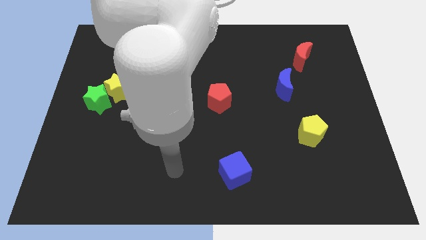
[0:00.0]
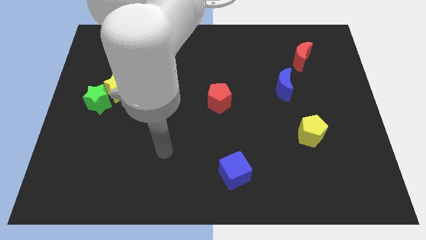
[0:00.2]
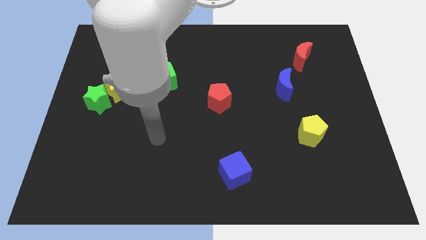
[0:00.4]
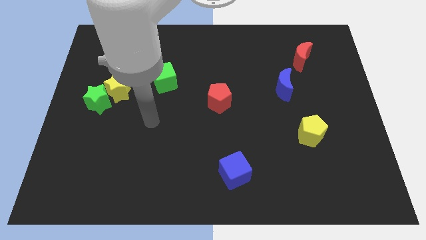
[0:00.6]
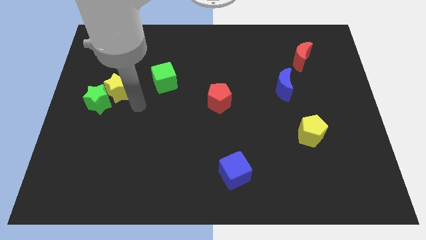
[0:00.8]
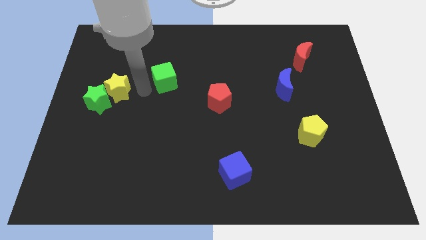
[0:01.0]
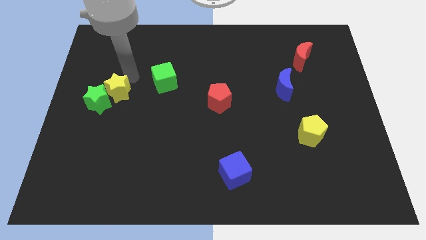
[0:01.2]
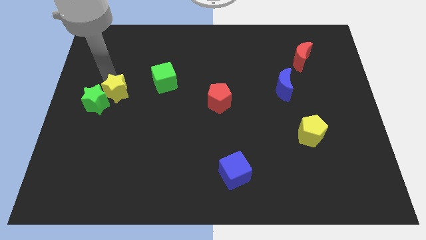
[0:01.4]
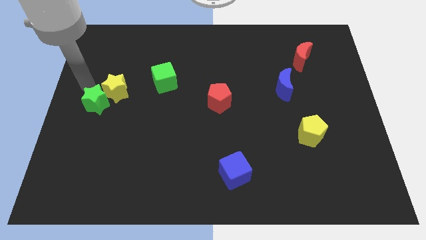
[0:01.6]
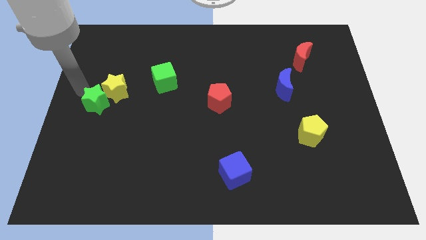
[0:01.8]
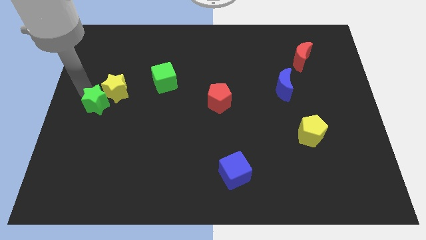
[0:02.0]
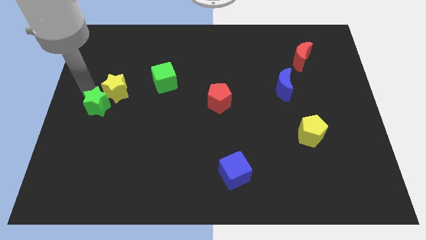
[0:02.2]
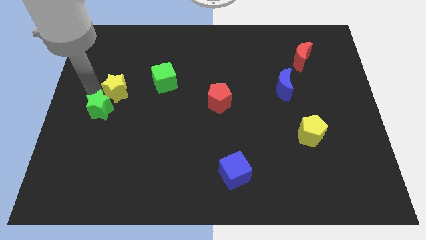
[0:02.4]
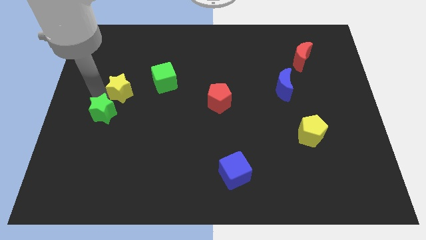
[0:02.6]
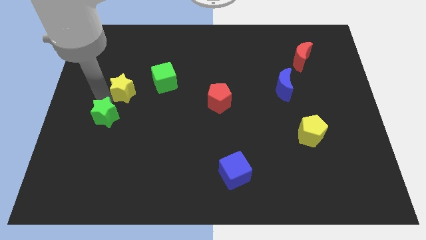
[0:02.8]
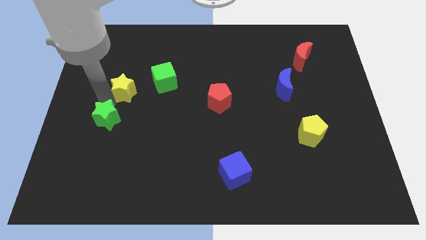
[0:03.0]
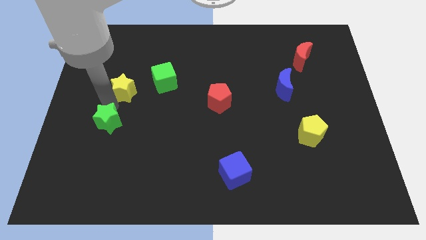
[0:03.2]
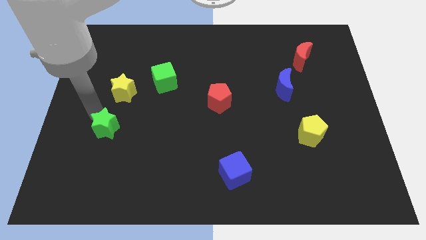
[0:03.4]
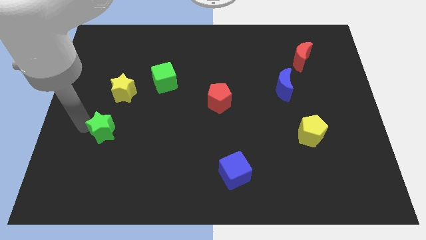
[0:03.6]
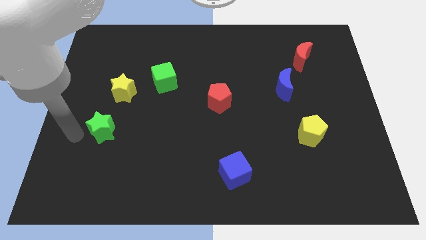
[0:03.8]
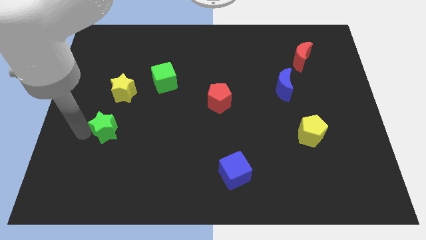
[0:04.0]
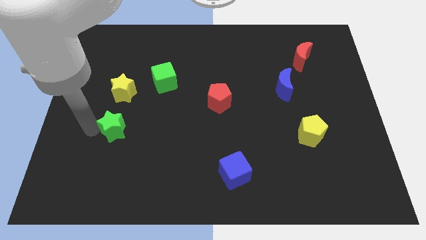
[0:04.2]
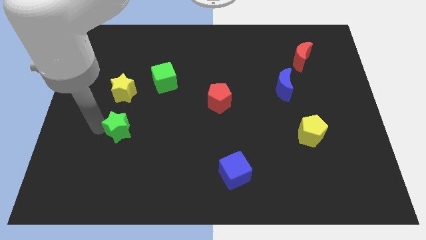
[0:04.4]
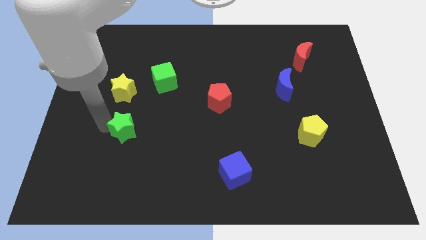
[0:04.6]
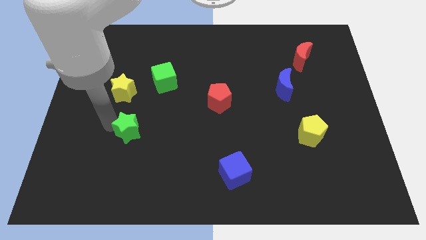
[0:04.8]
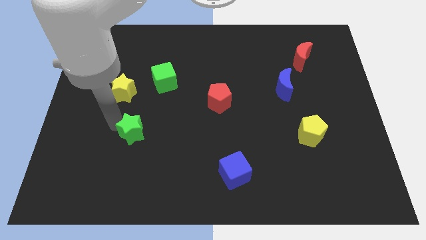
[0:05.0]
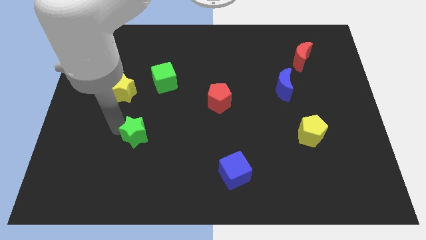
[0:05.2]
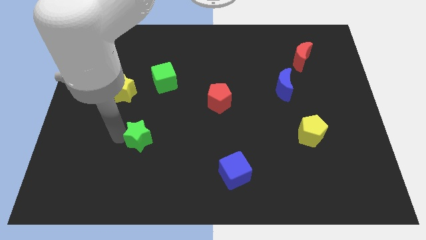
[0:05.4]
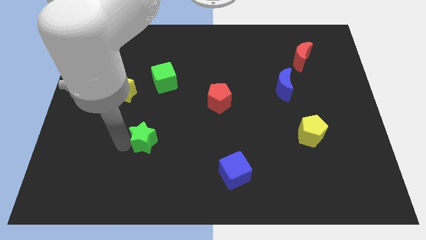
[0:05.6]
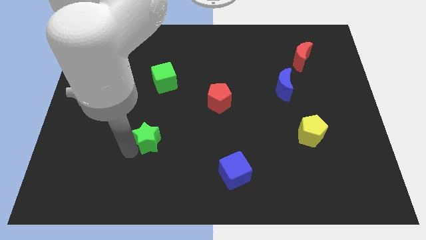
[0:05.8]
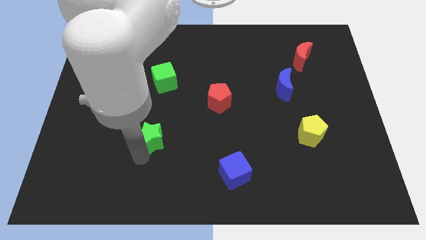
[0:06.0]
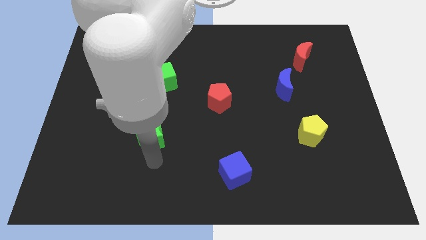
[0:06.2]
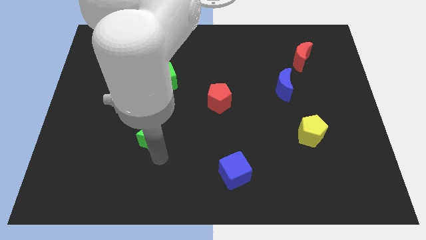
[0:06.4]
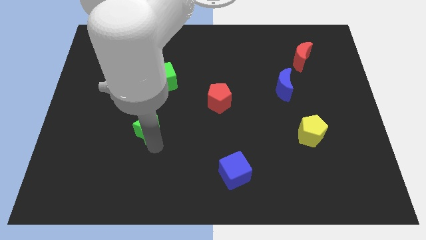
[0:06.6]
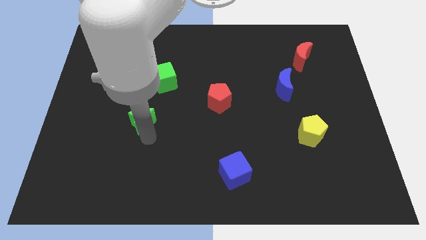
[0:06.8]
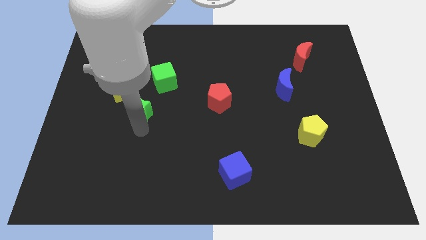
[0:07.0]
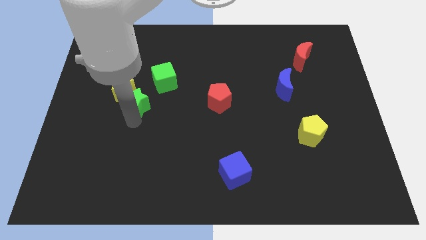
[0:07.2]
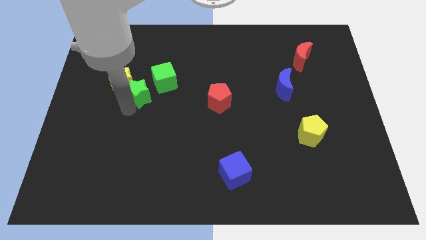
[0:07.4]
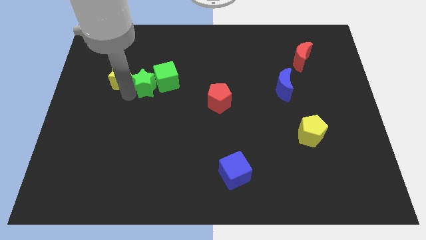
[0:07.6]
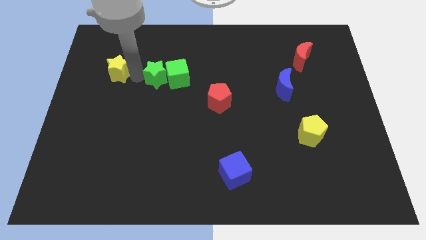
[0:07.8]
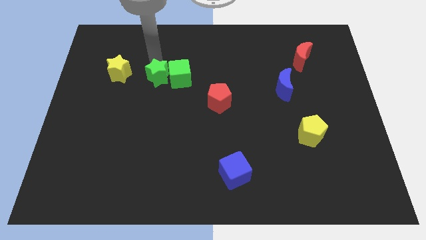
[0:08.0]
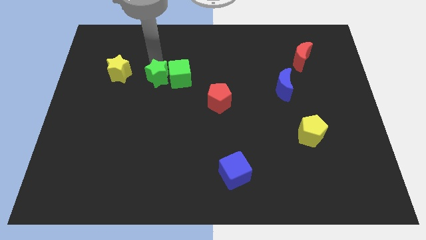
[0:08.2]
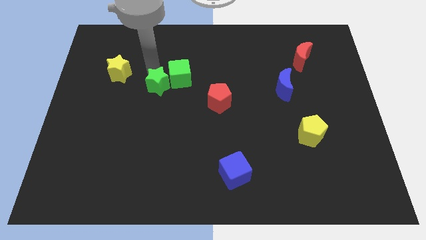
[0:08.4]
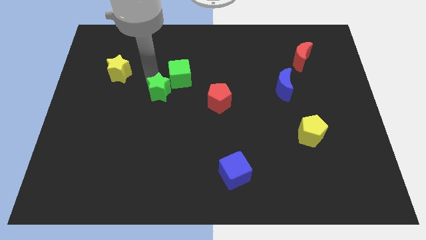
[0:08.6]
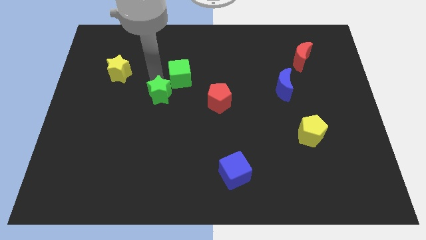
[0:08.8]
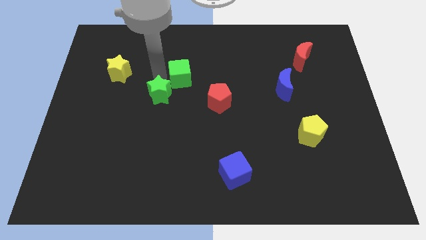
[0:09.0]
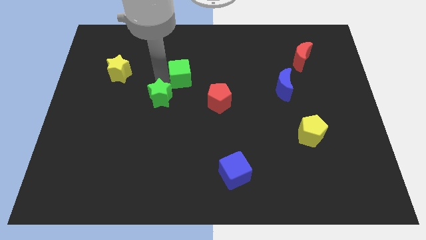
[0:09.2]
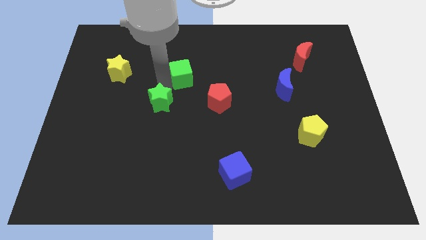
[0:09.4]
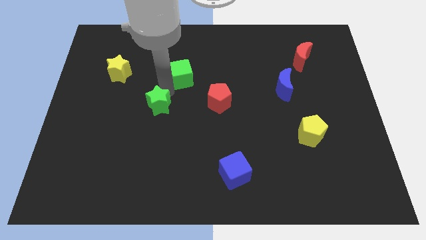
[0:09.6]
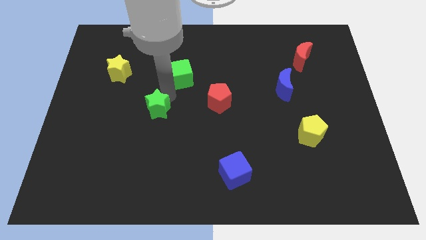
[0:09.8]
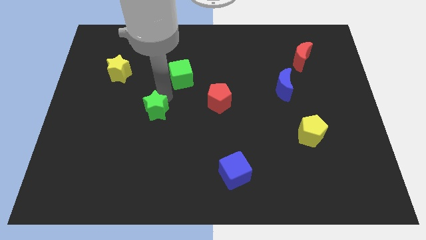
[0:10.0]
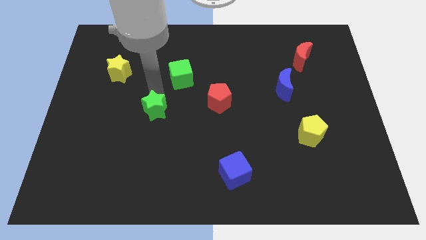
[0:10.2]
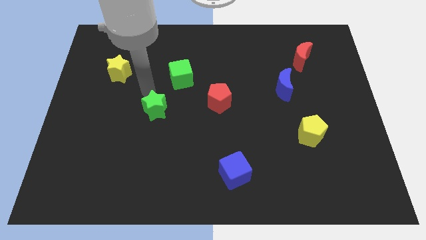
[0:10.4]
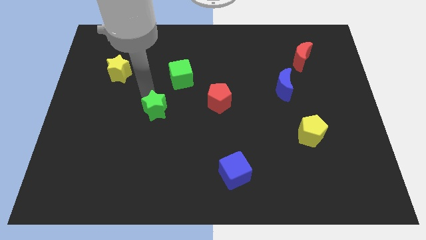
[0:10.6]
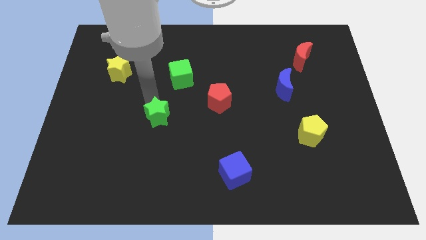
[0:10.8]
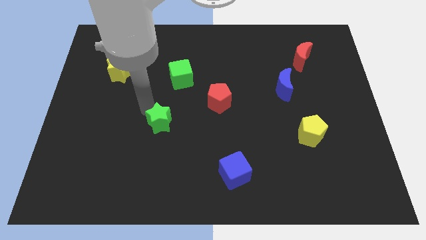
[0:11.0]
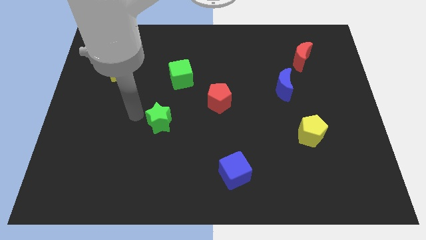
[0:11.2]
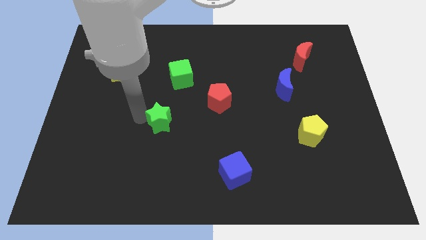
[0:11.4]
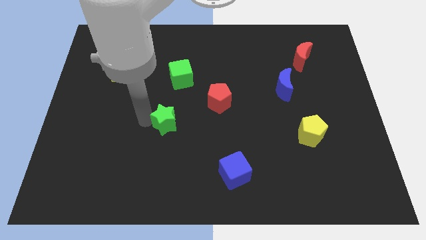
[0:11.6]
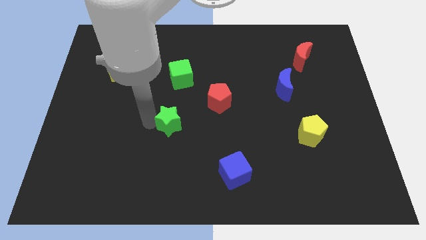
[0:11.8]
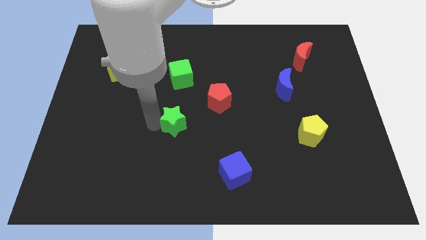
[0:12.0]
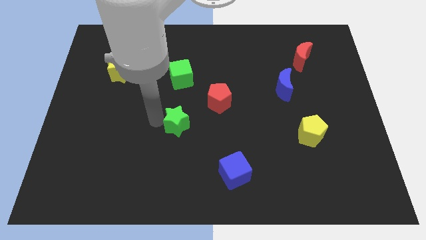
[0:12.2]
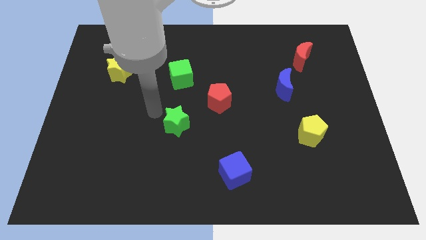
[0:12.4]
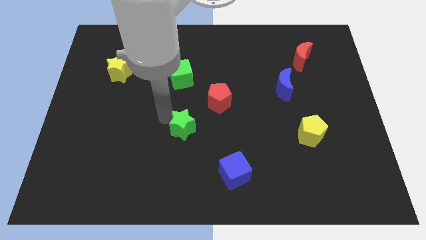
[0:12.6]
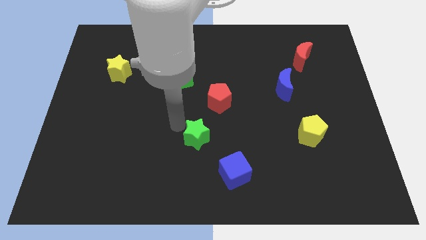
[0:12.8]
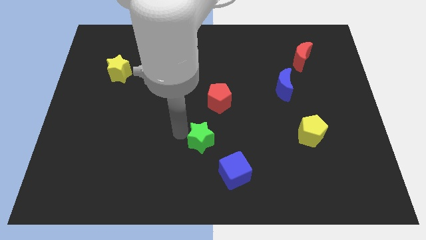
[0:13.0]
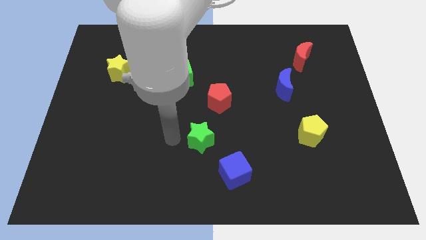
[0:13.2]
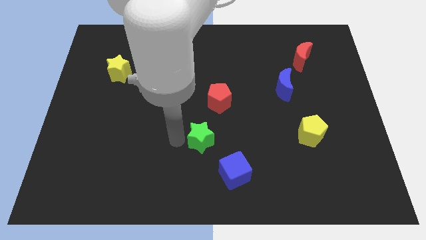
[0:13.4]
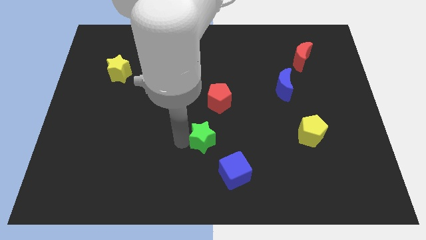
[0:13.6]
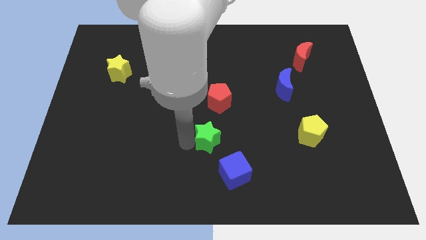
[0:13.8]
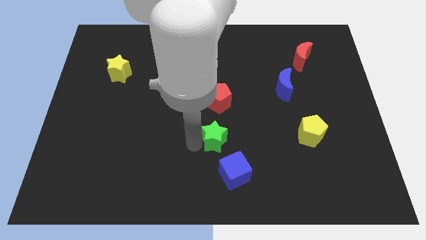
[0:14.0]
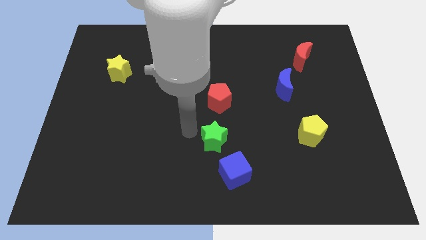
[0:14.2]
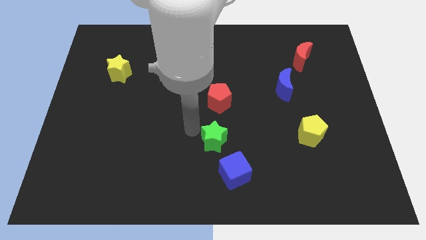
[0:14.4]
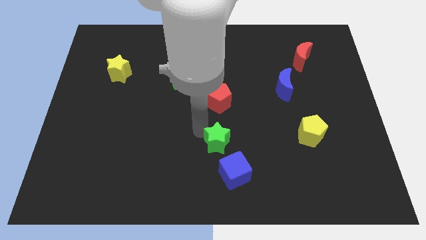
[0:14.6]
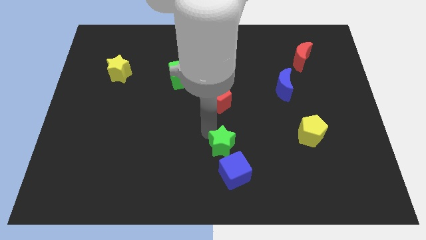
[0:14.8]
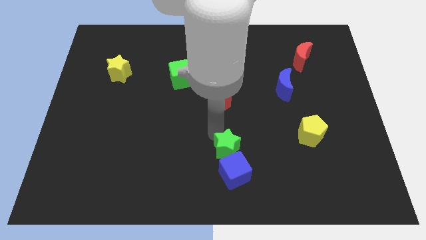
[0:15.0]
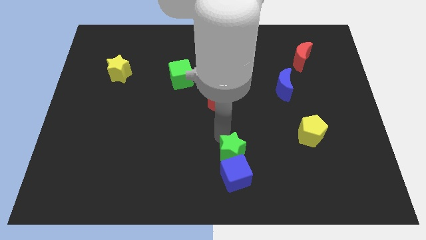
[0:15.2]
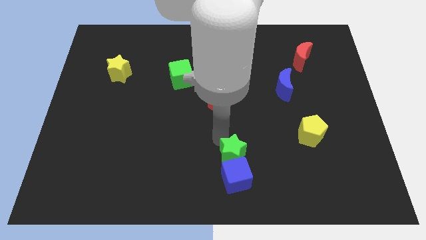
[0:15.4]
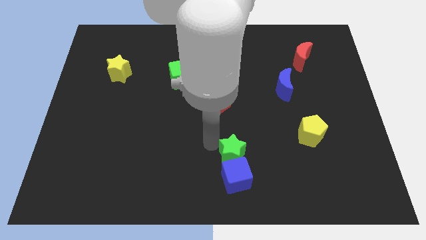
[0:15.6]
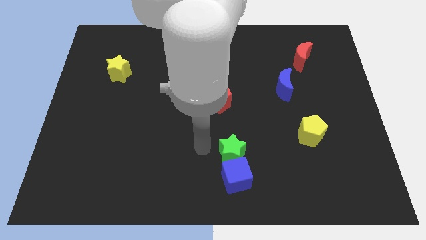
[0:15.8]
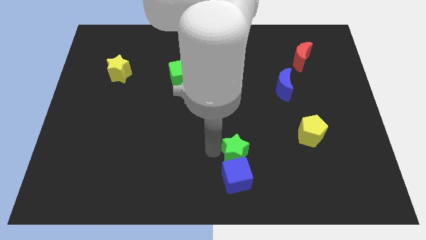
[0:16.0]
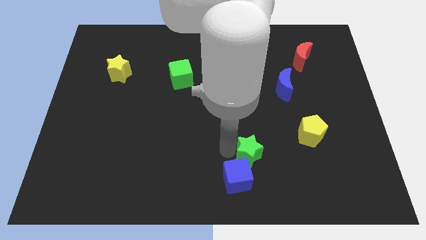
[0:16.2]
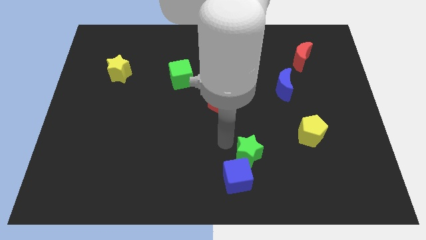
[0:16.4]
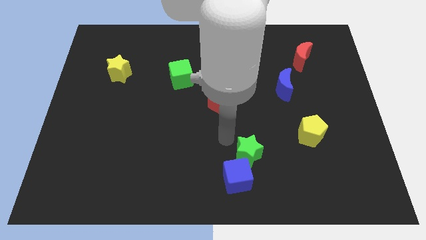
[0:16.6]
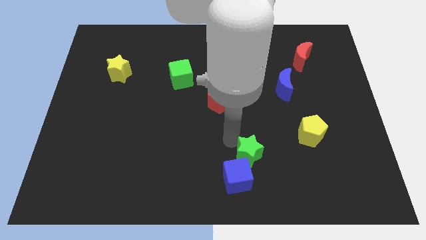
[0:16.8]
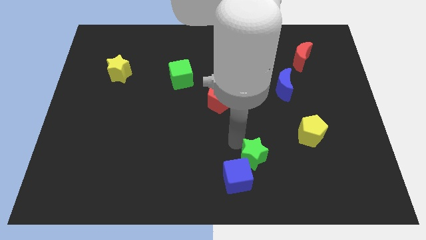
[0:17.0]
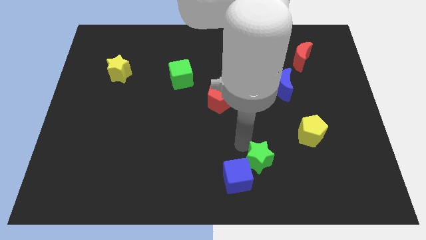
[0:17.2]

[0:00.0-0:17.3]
slide the green star to the right side of the blue cube
